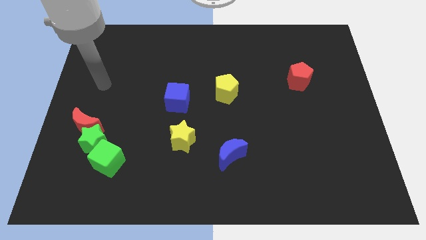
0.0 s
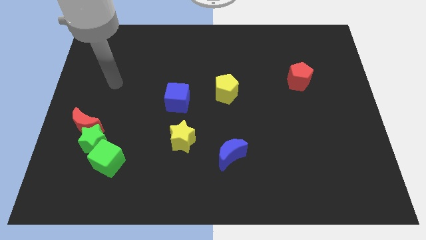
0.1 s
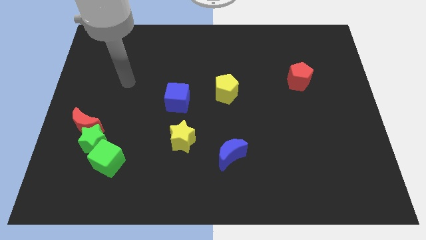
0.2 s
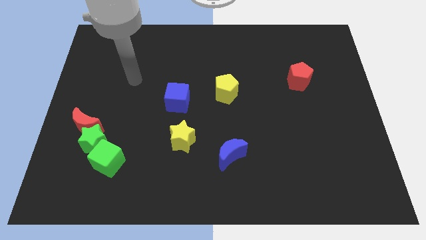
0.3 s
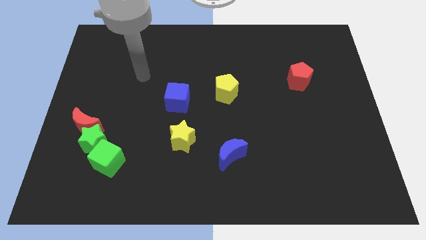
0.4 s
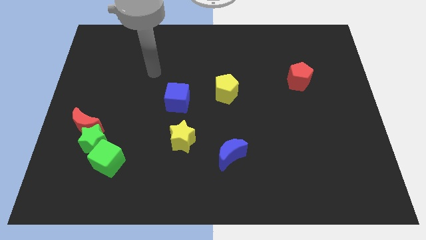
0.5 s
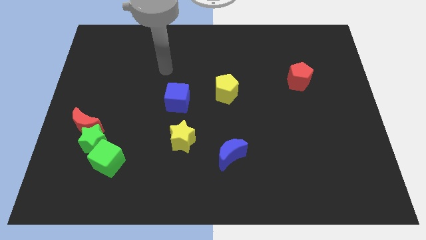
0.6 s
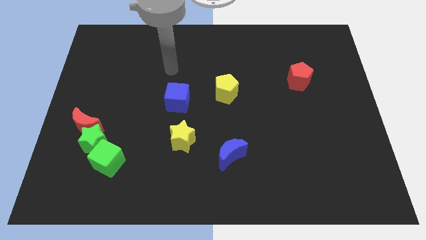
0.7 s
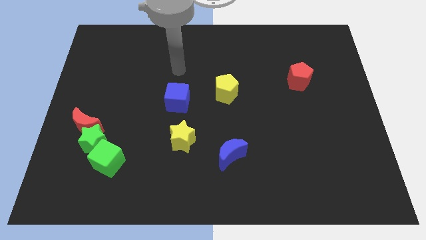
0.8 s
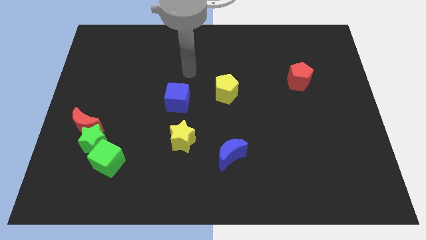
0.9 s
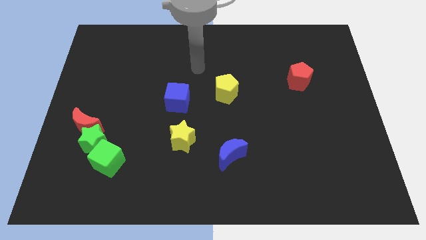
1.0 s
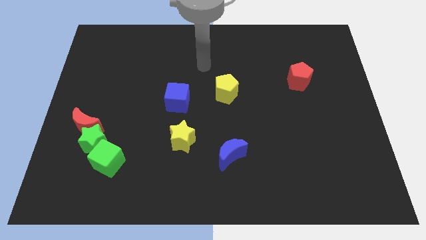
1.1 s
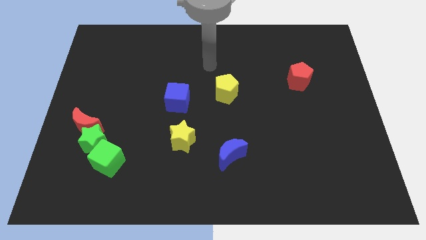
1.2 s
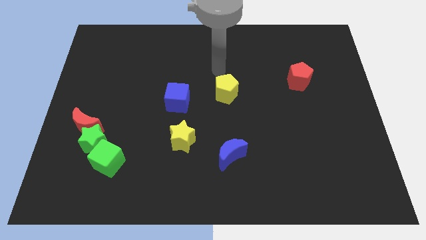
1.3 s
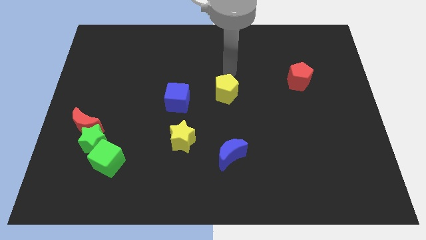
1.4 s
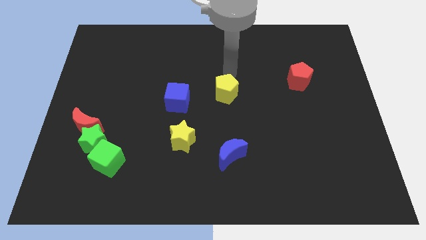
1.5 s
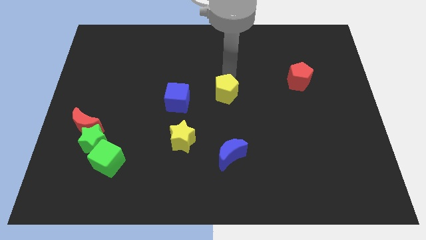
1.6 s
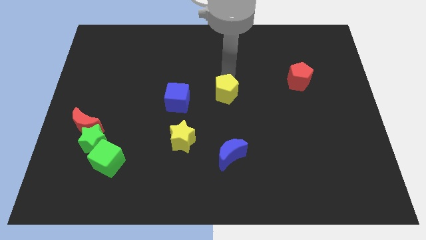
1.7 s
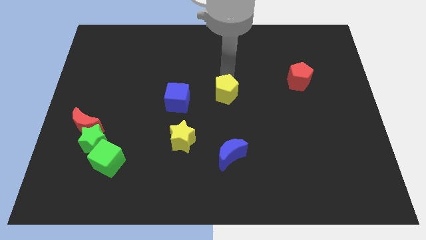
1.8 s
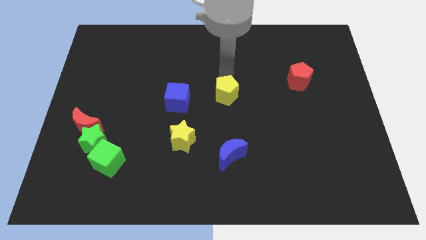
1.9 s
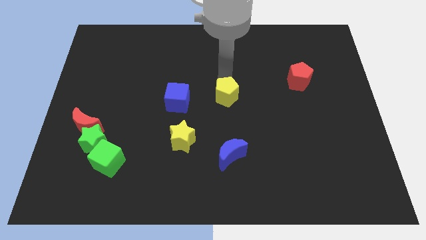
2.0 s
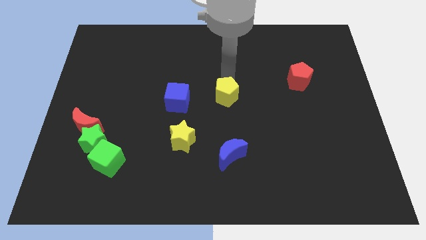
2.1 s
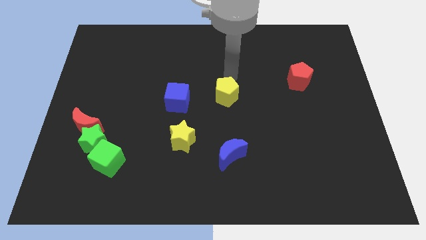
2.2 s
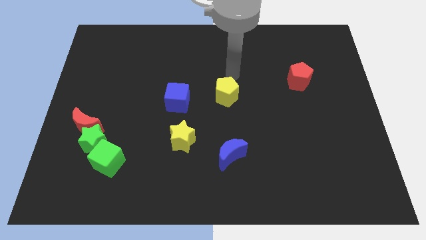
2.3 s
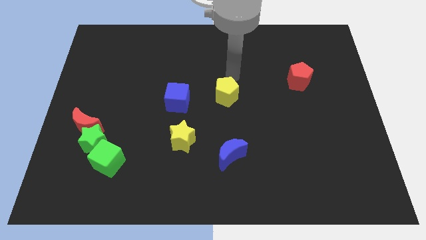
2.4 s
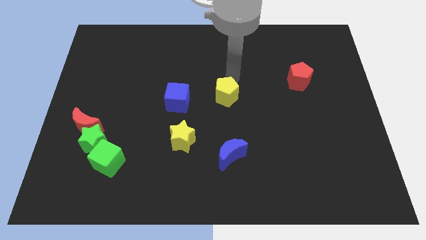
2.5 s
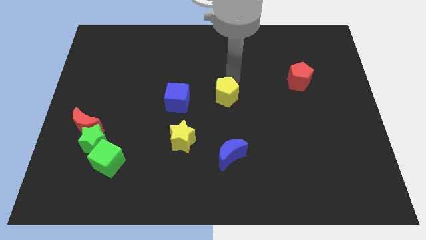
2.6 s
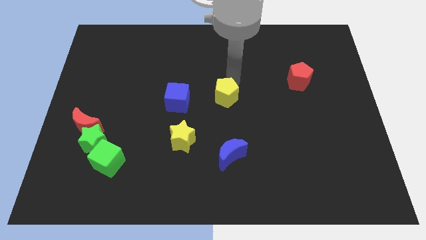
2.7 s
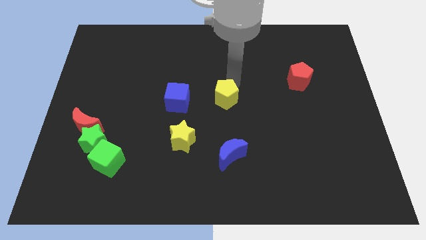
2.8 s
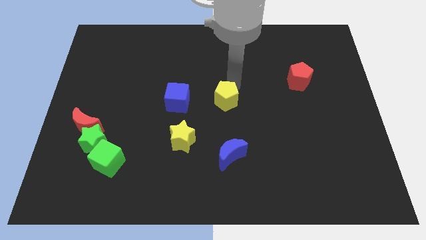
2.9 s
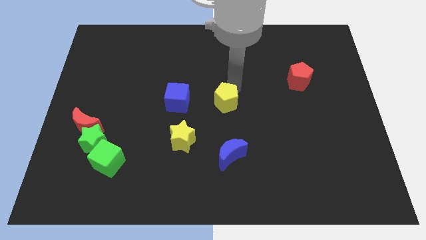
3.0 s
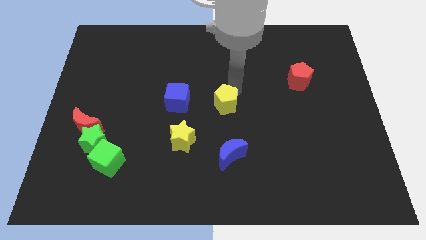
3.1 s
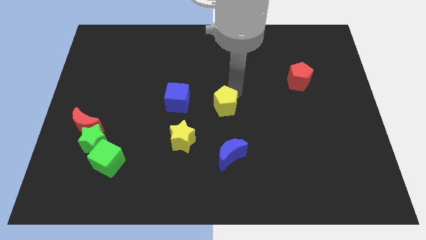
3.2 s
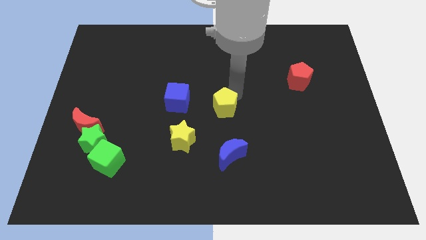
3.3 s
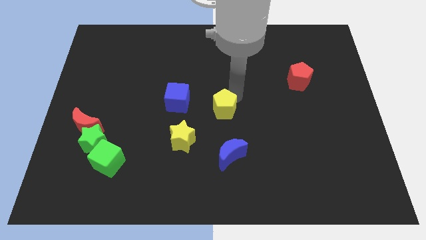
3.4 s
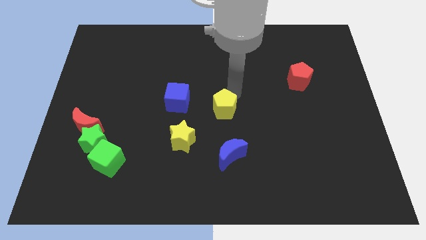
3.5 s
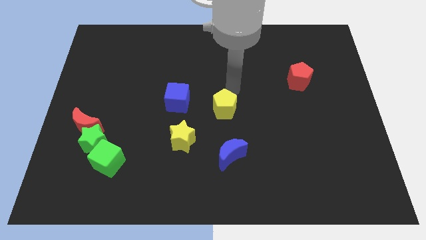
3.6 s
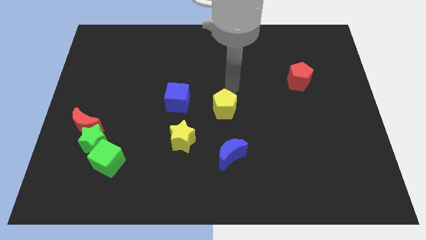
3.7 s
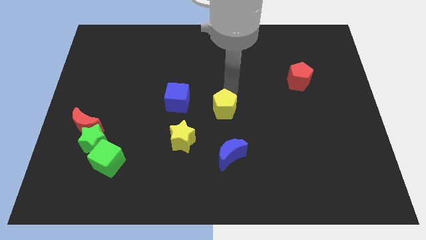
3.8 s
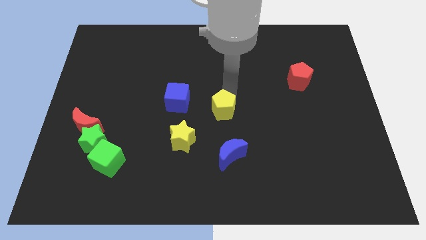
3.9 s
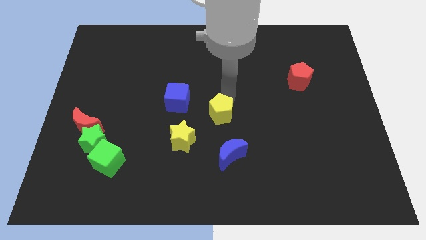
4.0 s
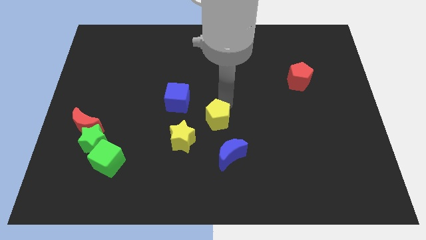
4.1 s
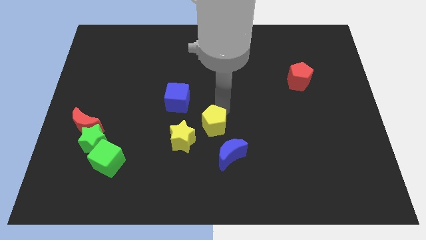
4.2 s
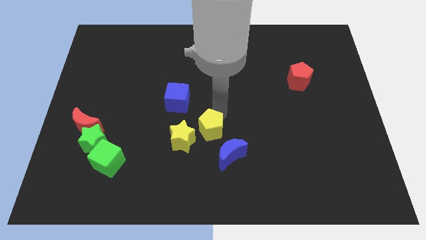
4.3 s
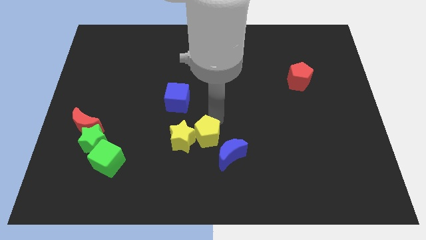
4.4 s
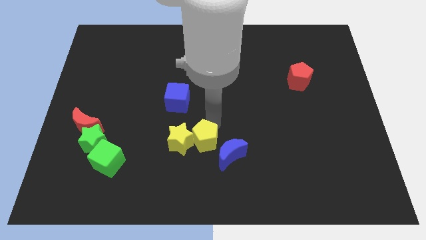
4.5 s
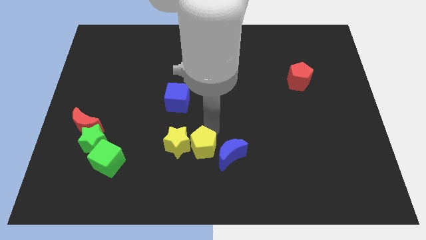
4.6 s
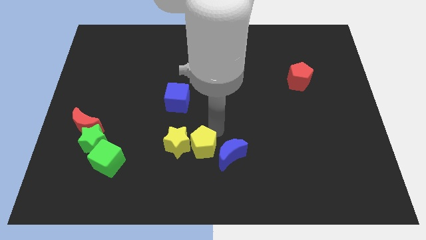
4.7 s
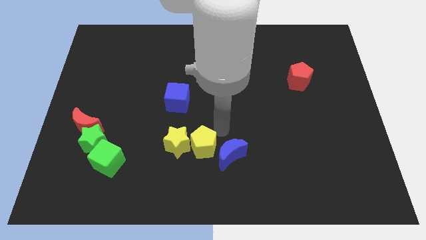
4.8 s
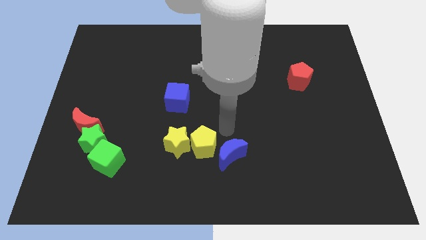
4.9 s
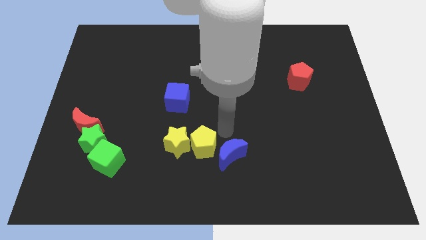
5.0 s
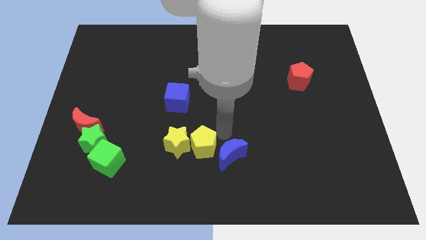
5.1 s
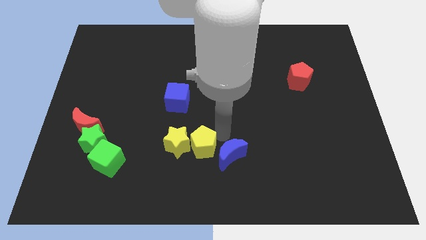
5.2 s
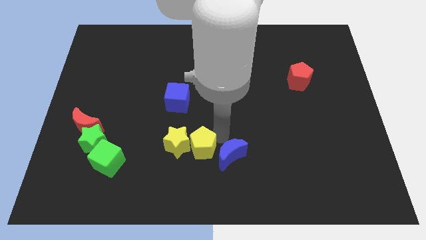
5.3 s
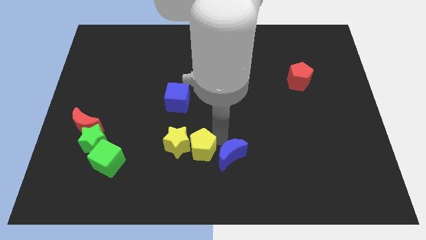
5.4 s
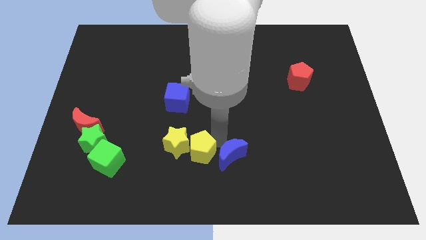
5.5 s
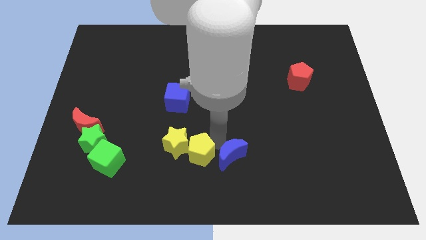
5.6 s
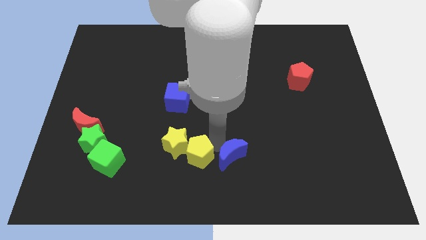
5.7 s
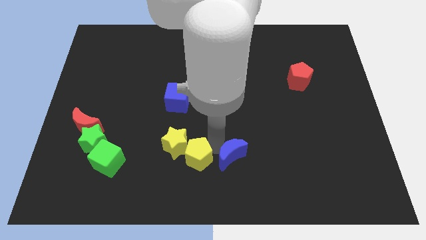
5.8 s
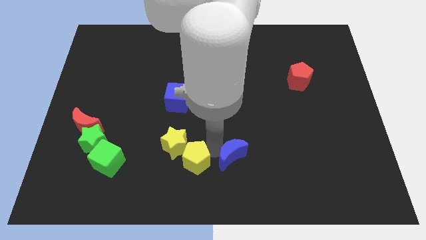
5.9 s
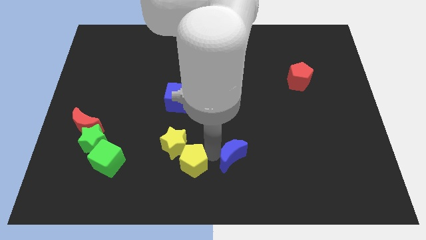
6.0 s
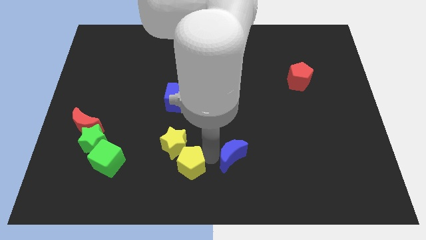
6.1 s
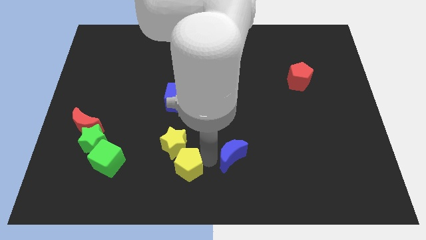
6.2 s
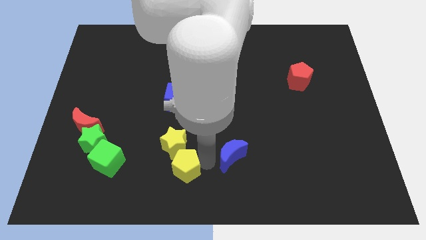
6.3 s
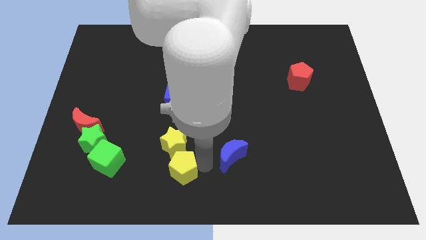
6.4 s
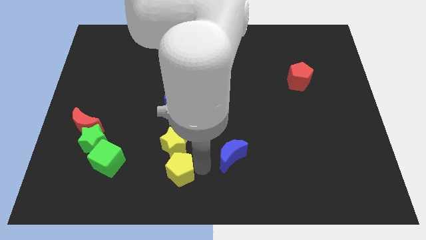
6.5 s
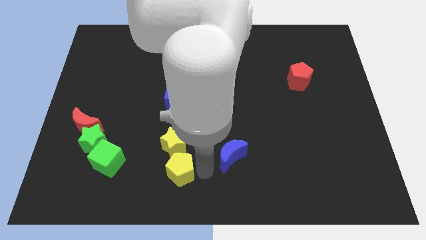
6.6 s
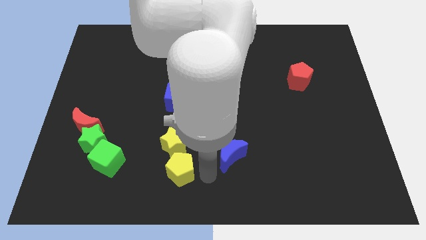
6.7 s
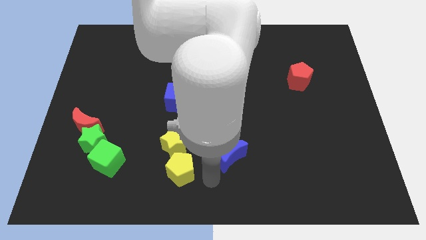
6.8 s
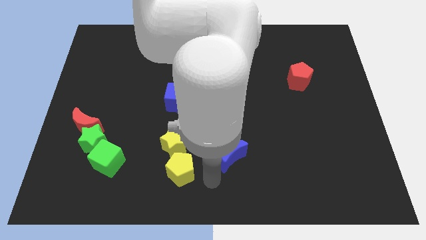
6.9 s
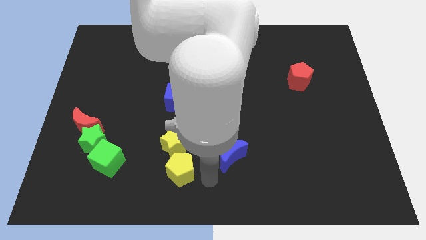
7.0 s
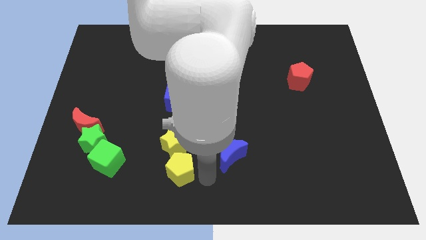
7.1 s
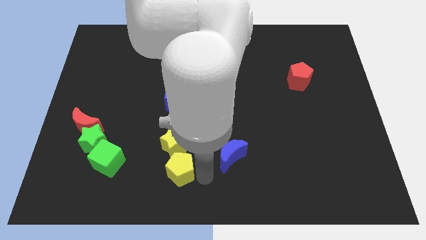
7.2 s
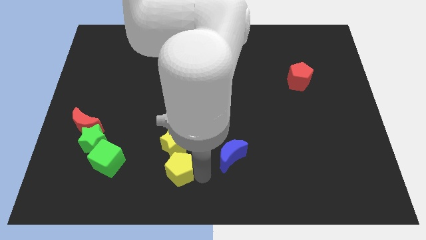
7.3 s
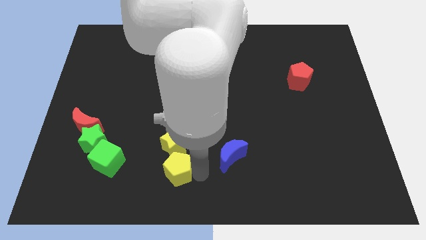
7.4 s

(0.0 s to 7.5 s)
slide the yellow pentagon down and to the left

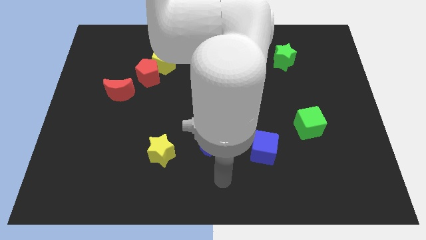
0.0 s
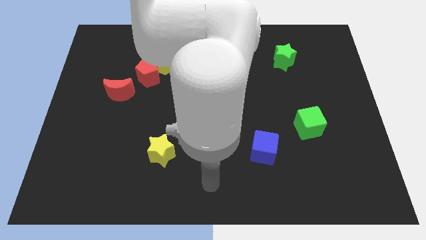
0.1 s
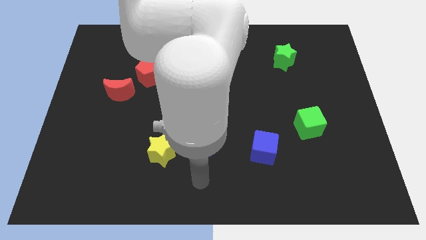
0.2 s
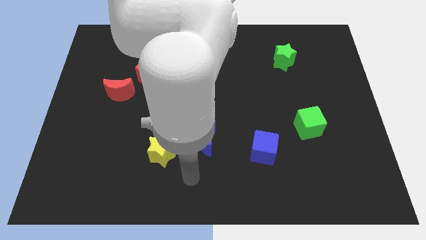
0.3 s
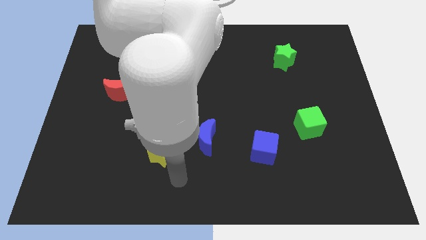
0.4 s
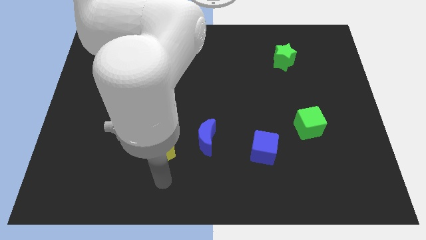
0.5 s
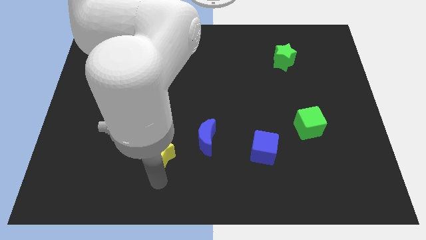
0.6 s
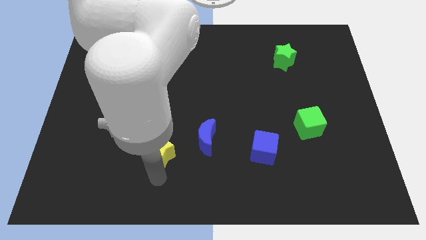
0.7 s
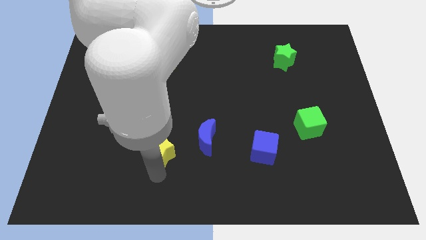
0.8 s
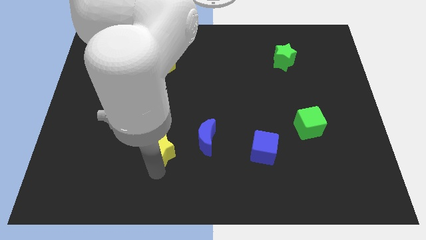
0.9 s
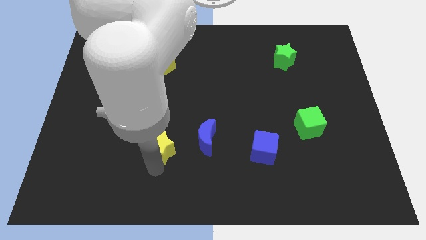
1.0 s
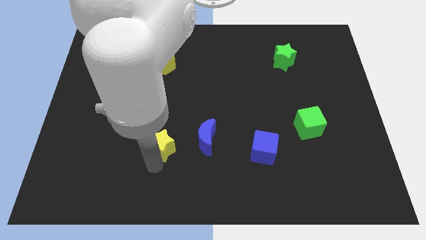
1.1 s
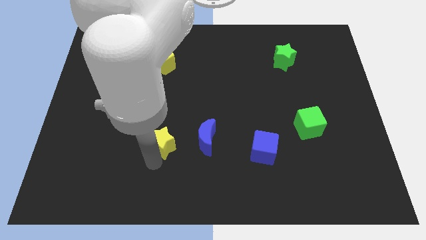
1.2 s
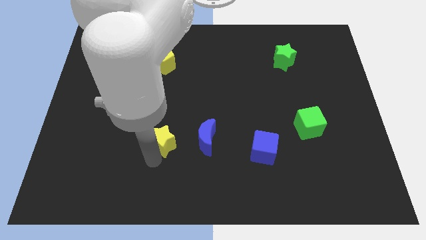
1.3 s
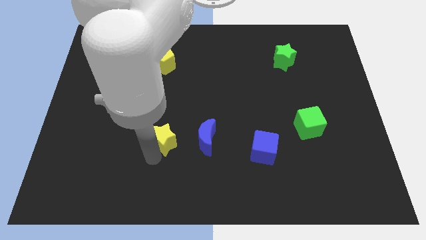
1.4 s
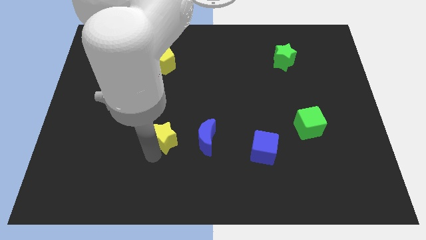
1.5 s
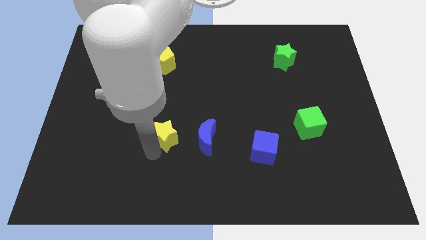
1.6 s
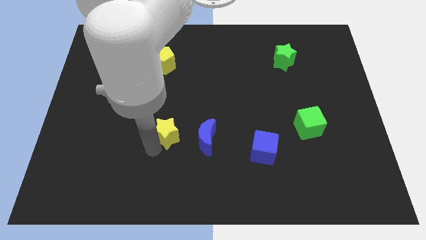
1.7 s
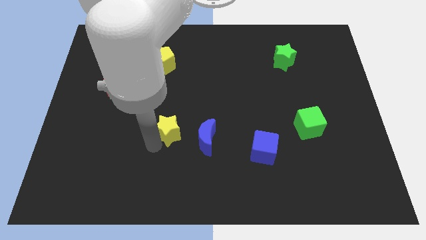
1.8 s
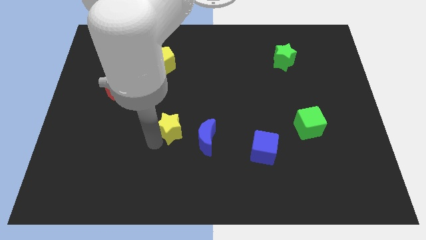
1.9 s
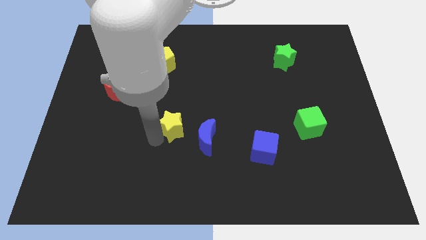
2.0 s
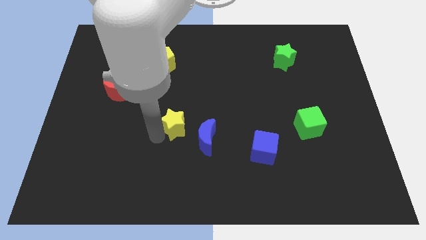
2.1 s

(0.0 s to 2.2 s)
slightly move the yellow star upwards
